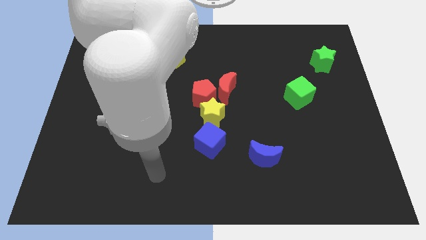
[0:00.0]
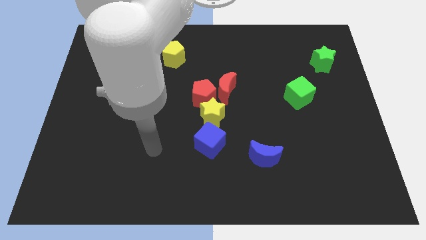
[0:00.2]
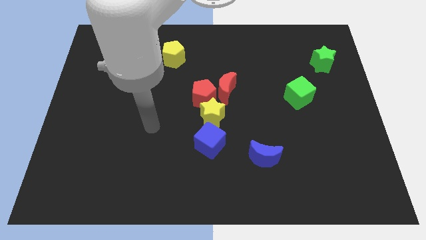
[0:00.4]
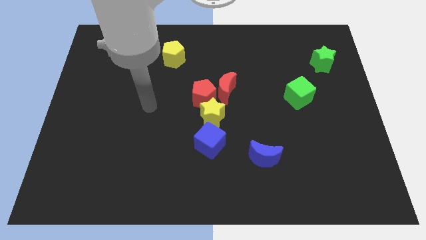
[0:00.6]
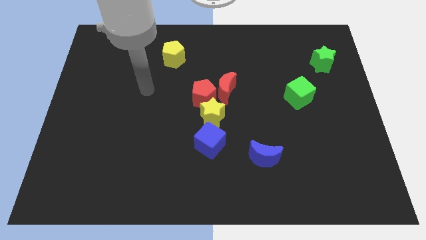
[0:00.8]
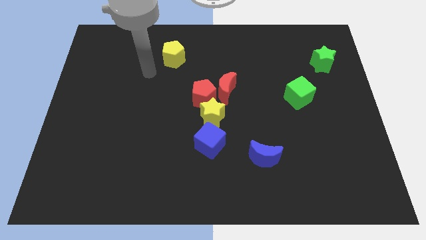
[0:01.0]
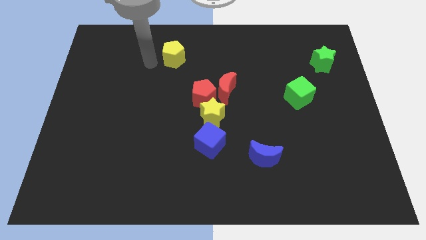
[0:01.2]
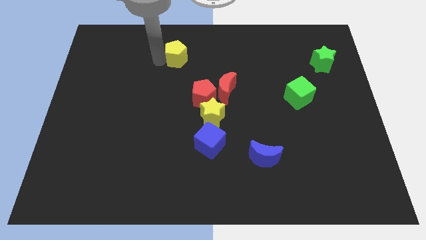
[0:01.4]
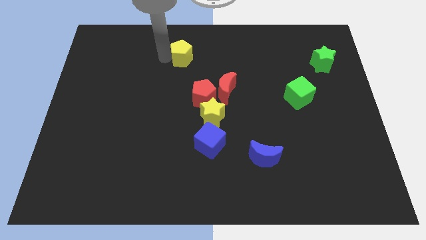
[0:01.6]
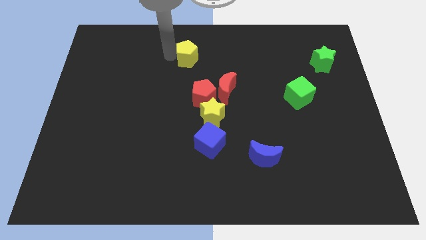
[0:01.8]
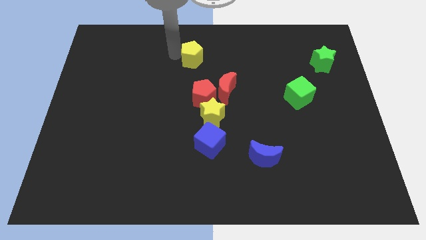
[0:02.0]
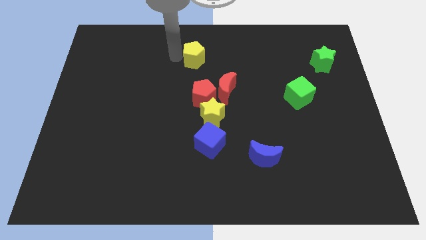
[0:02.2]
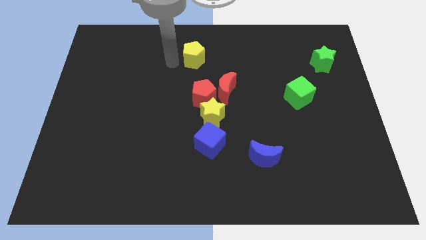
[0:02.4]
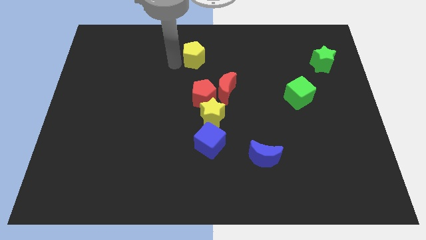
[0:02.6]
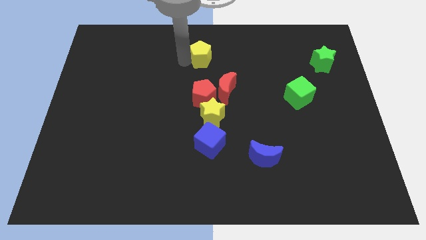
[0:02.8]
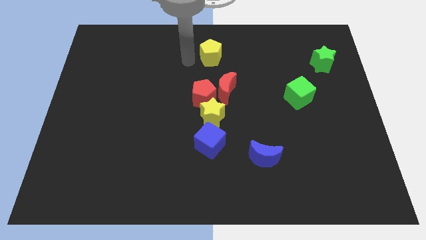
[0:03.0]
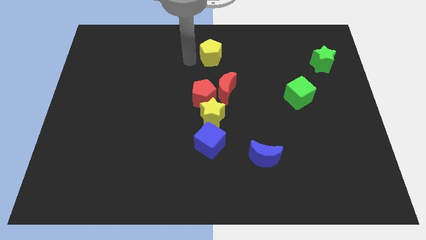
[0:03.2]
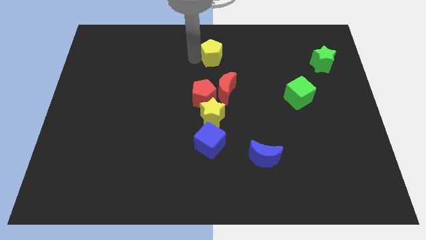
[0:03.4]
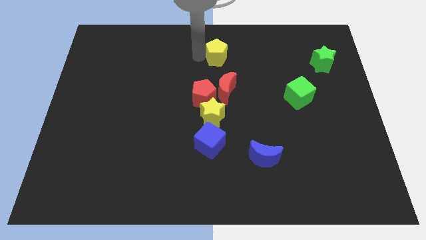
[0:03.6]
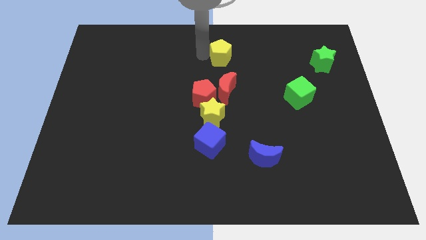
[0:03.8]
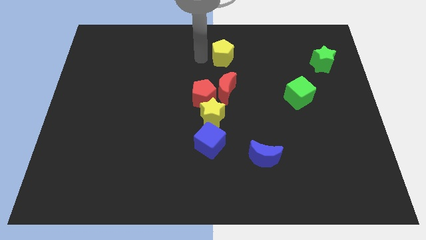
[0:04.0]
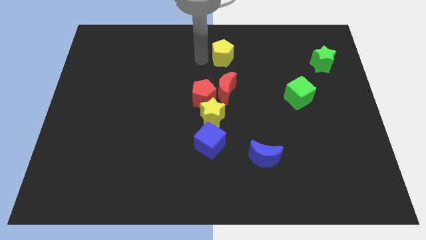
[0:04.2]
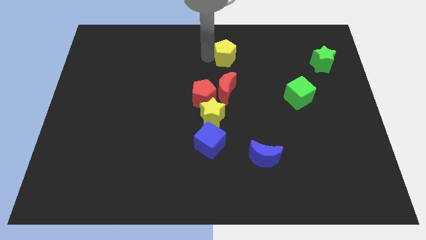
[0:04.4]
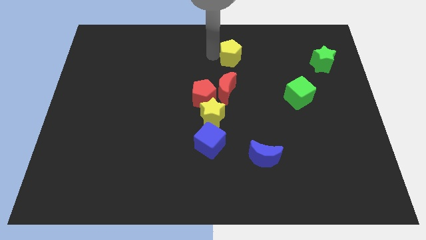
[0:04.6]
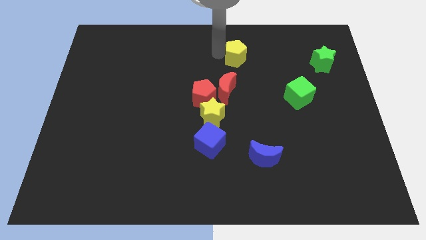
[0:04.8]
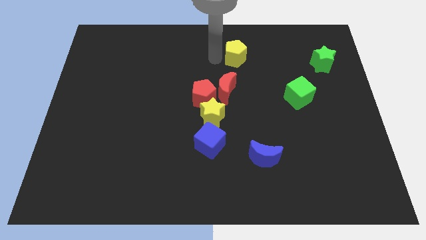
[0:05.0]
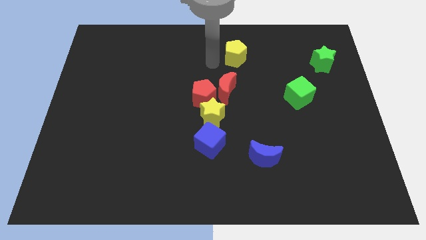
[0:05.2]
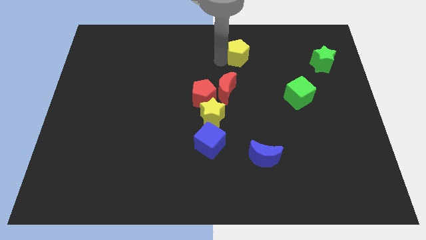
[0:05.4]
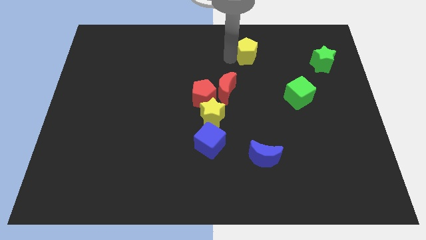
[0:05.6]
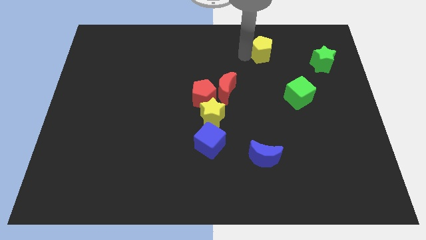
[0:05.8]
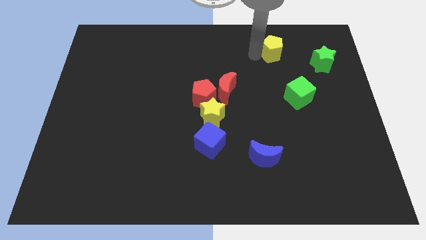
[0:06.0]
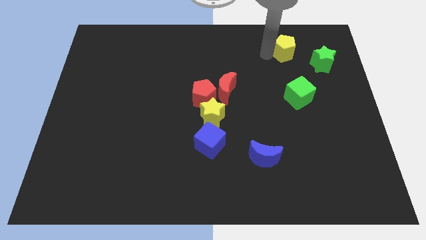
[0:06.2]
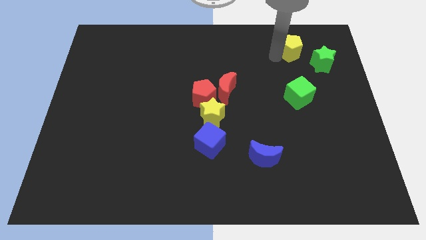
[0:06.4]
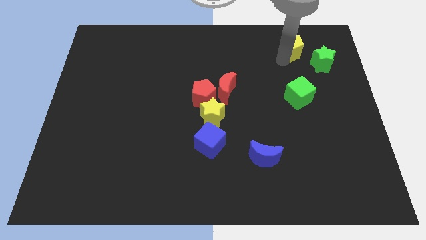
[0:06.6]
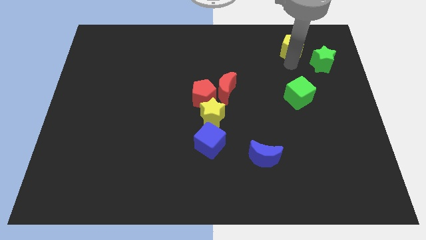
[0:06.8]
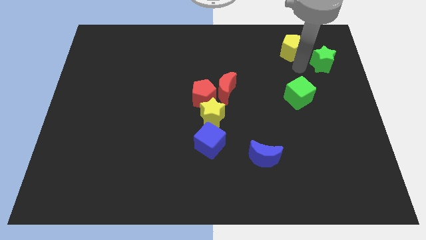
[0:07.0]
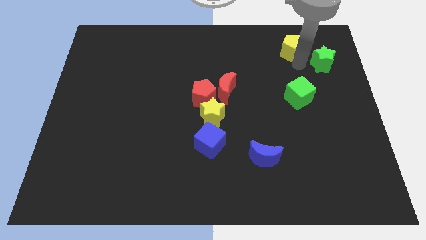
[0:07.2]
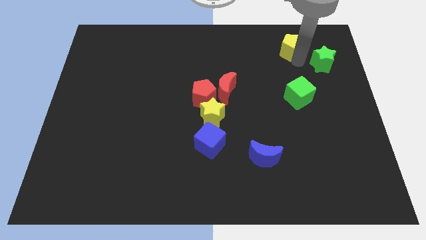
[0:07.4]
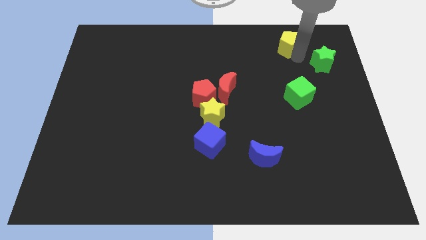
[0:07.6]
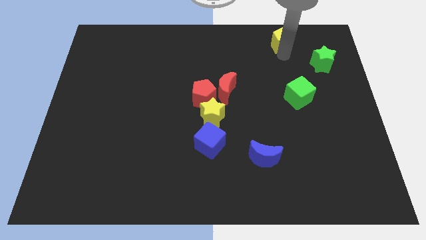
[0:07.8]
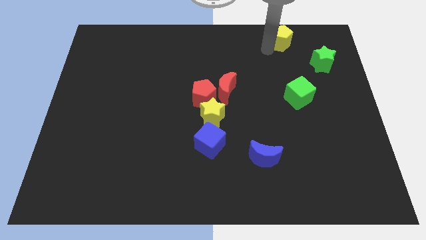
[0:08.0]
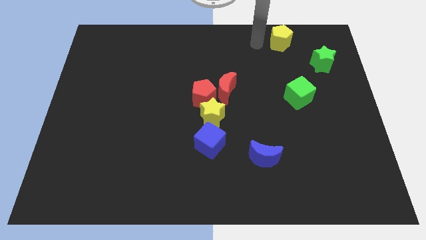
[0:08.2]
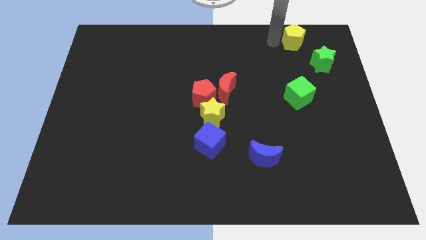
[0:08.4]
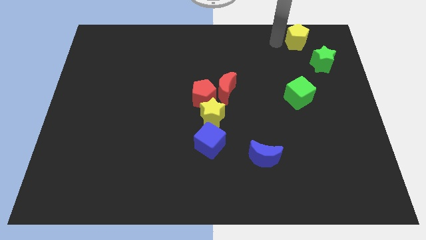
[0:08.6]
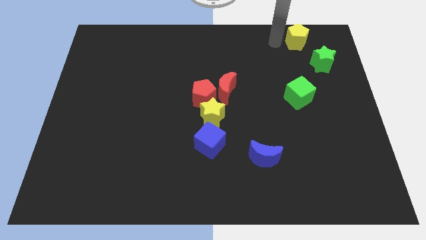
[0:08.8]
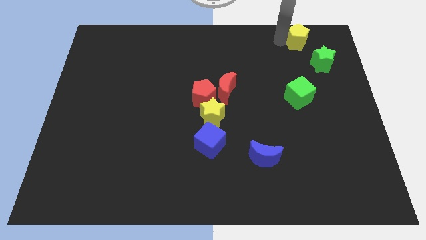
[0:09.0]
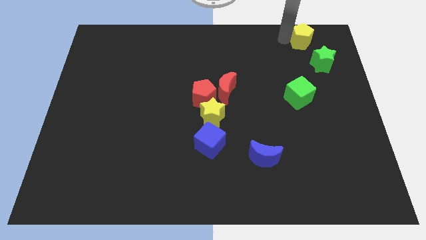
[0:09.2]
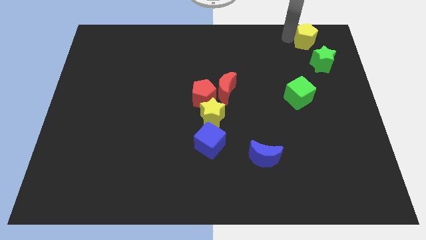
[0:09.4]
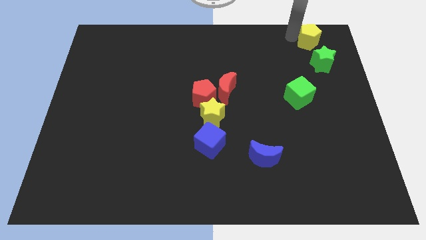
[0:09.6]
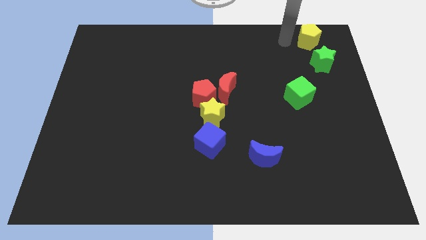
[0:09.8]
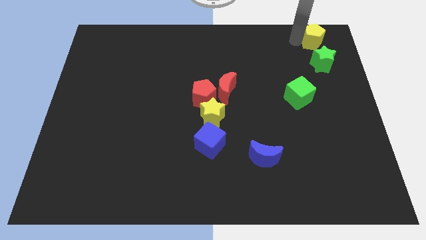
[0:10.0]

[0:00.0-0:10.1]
slide the yellow pentagon to the top right of the board

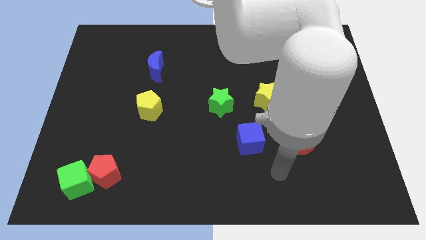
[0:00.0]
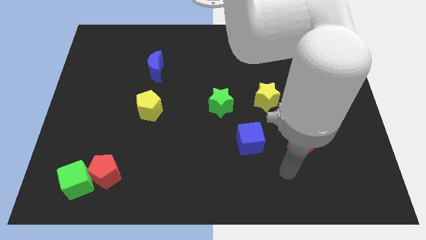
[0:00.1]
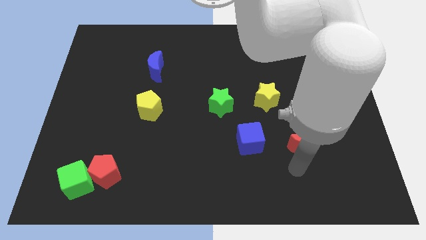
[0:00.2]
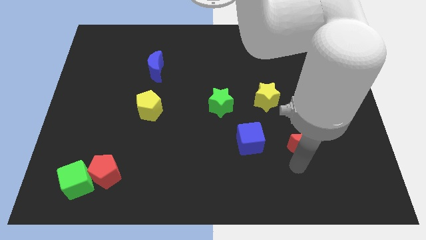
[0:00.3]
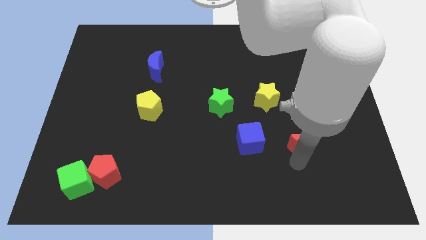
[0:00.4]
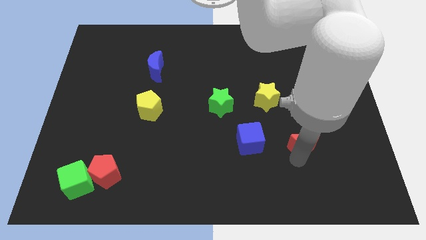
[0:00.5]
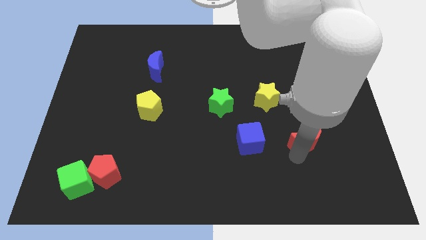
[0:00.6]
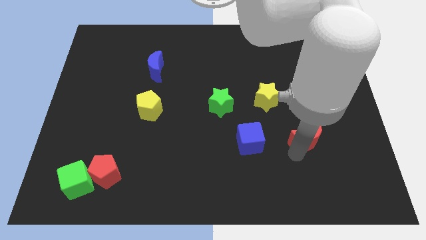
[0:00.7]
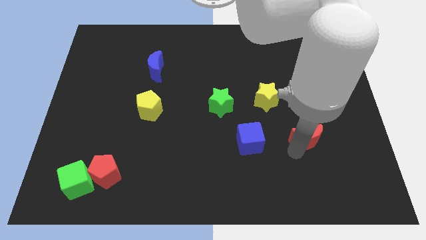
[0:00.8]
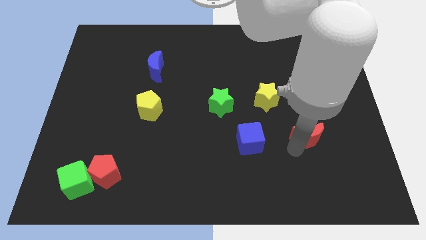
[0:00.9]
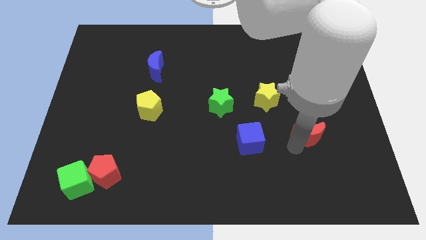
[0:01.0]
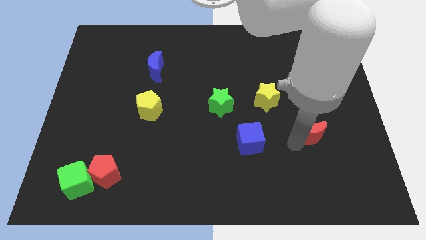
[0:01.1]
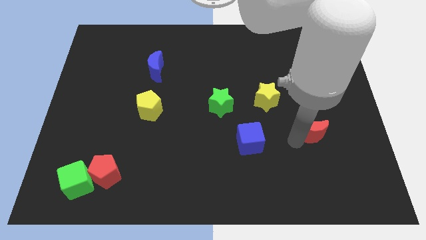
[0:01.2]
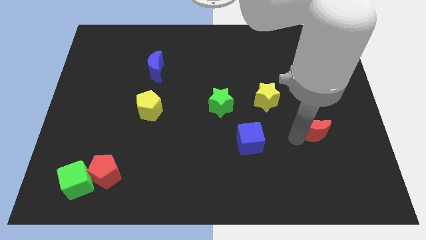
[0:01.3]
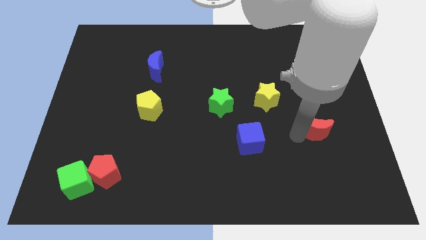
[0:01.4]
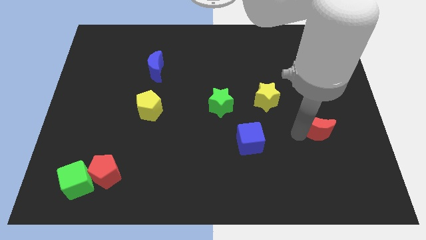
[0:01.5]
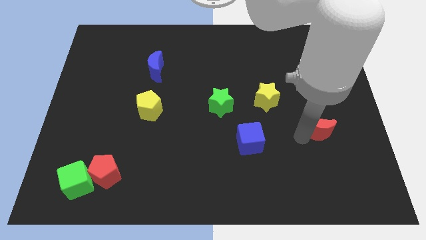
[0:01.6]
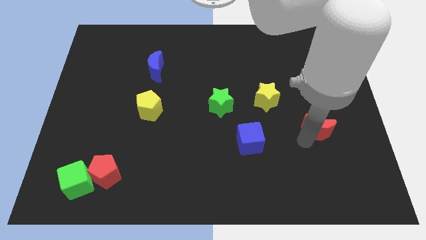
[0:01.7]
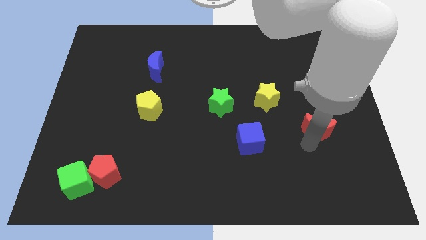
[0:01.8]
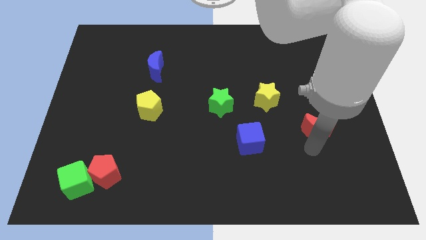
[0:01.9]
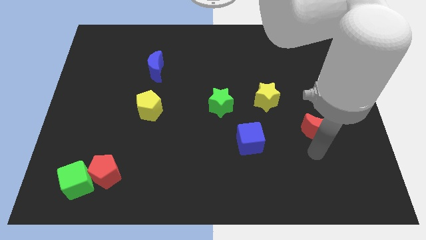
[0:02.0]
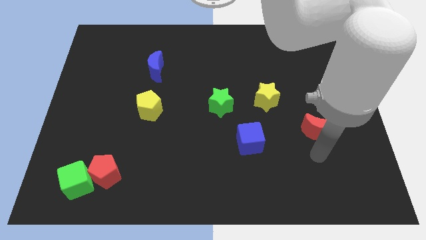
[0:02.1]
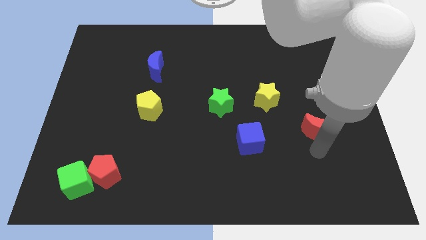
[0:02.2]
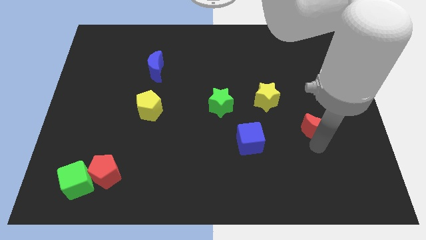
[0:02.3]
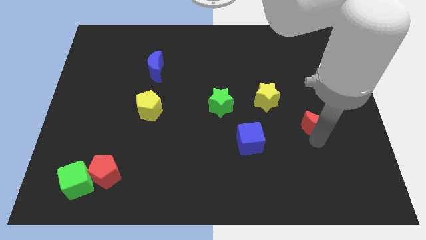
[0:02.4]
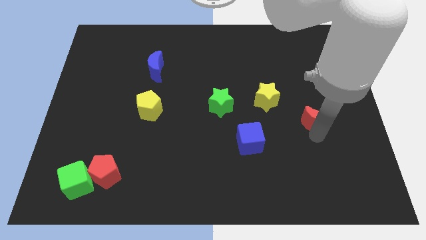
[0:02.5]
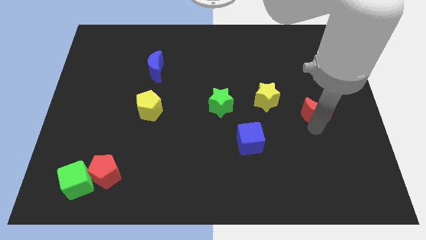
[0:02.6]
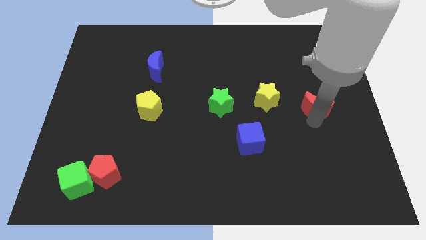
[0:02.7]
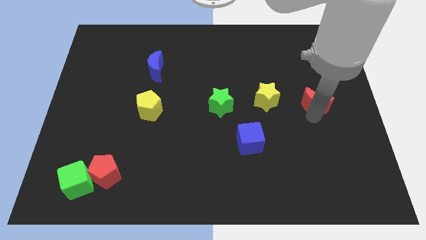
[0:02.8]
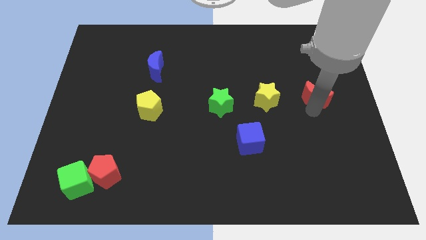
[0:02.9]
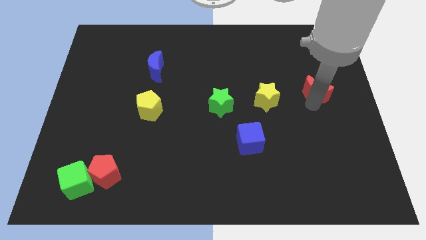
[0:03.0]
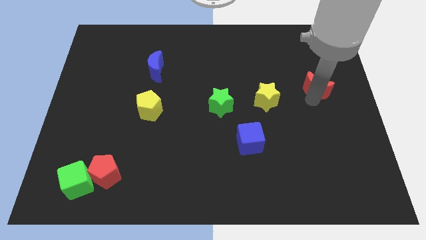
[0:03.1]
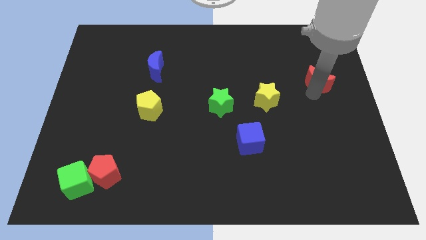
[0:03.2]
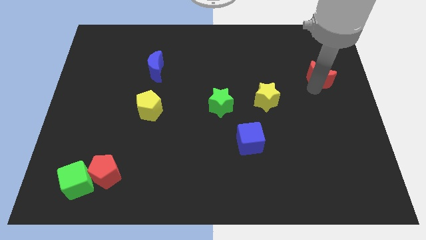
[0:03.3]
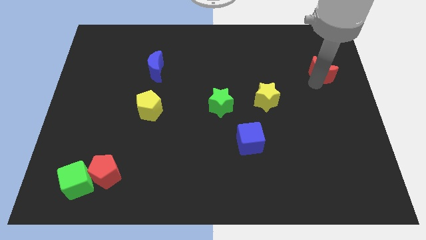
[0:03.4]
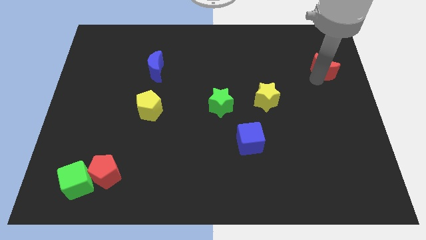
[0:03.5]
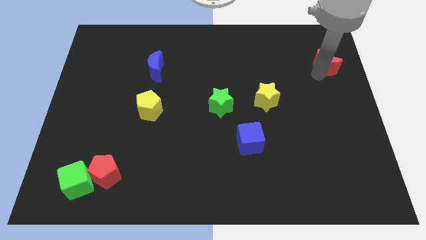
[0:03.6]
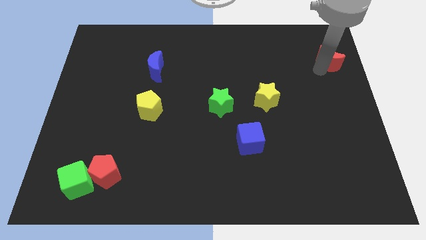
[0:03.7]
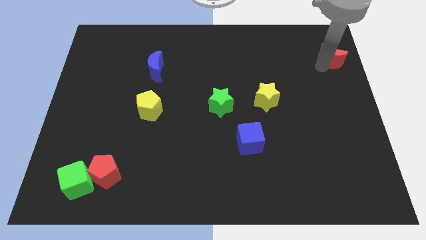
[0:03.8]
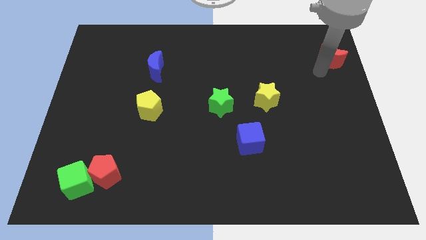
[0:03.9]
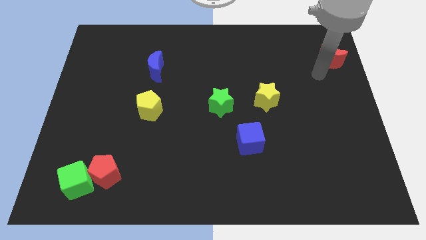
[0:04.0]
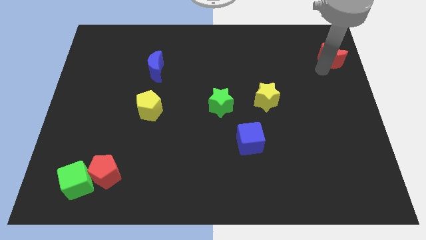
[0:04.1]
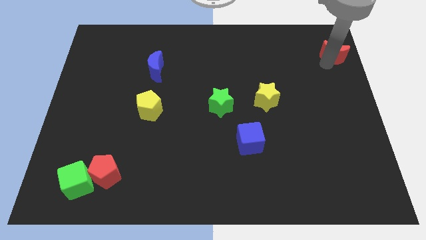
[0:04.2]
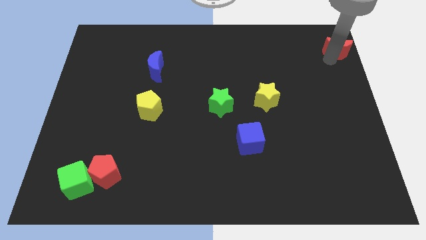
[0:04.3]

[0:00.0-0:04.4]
slide the red moon to the upper right corner
